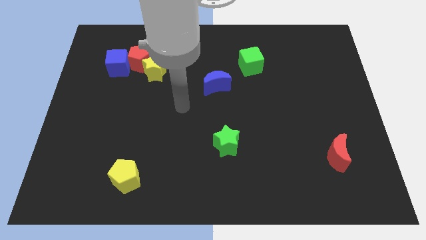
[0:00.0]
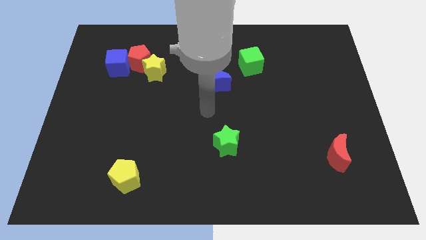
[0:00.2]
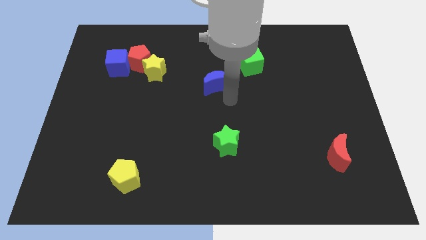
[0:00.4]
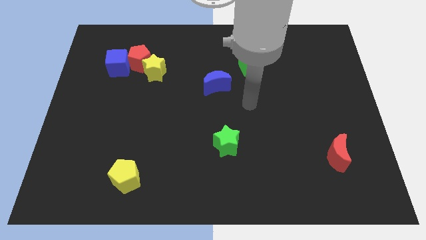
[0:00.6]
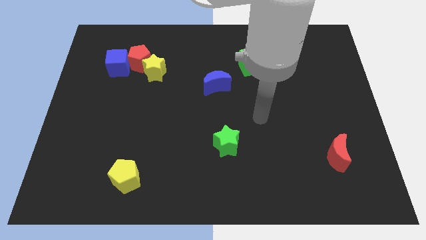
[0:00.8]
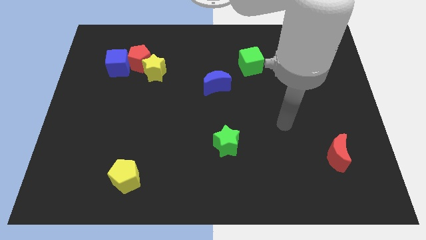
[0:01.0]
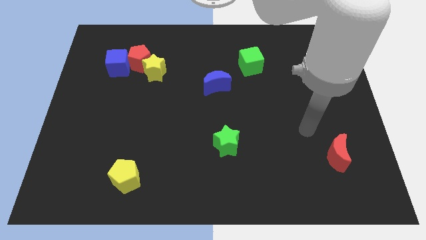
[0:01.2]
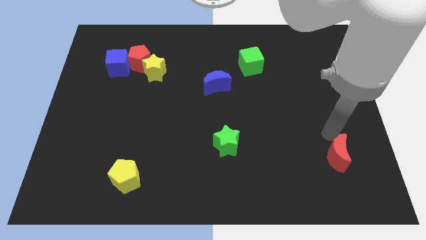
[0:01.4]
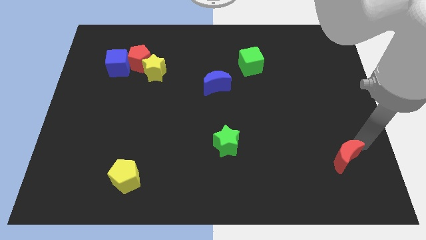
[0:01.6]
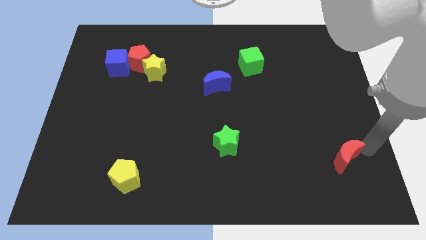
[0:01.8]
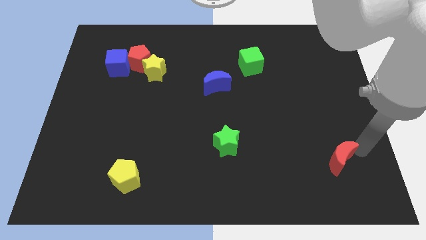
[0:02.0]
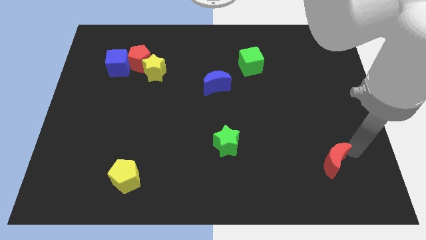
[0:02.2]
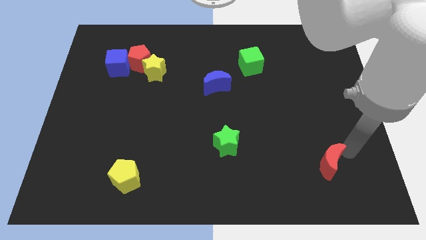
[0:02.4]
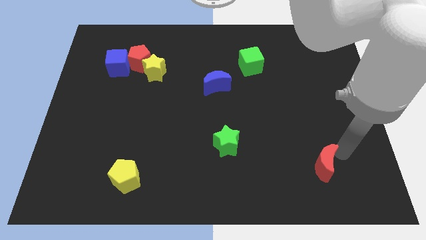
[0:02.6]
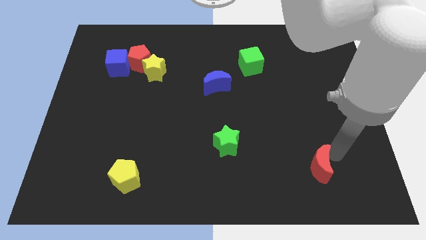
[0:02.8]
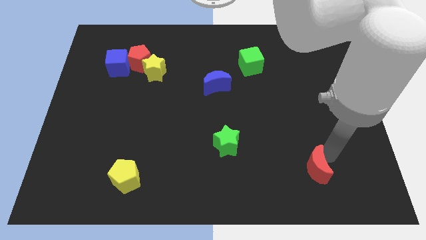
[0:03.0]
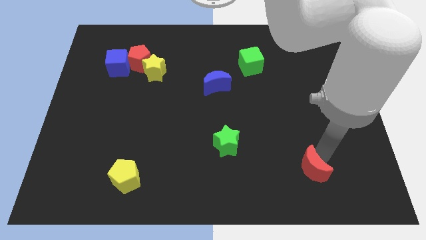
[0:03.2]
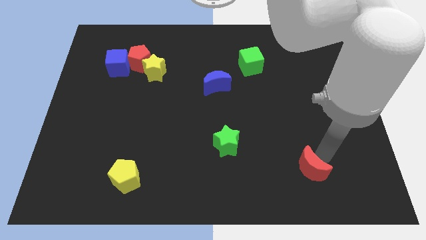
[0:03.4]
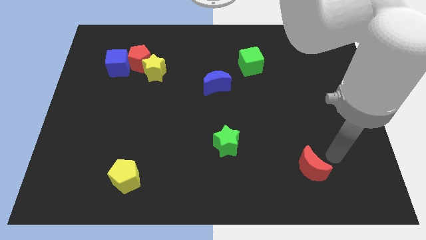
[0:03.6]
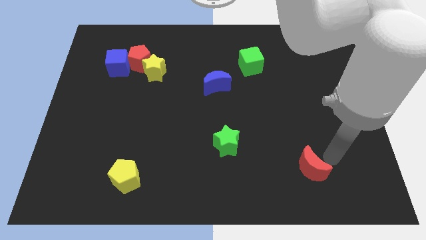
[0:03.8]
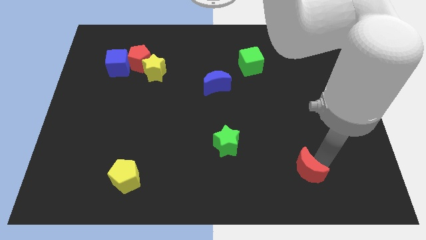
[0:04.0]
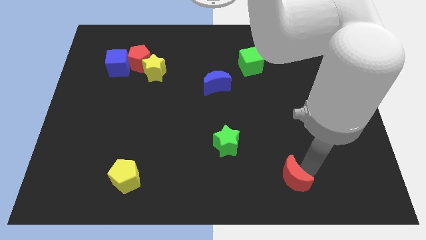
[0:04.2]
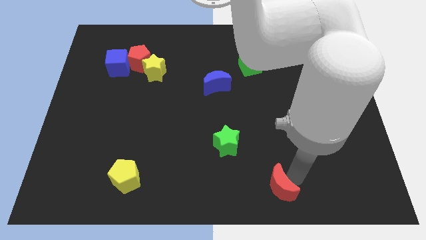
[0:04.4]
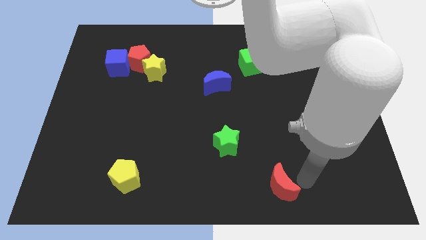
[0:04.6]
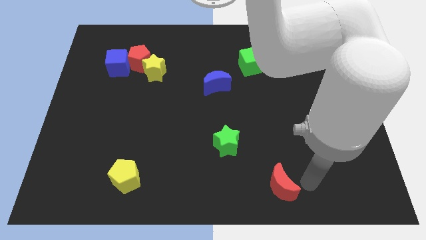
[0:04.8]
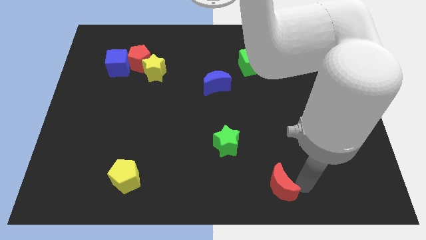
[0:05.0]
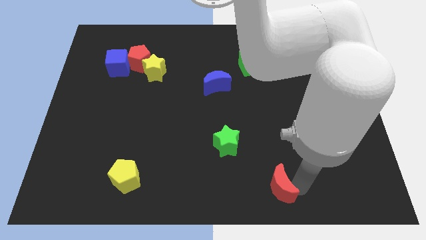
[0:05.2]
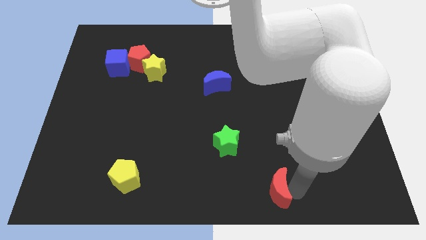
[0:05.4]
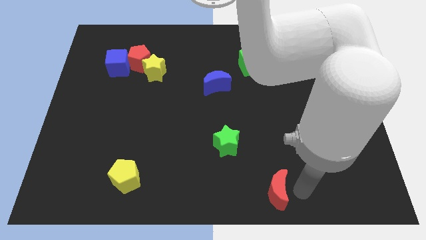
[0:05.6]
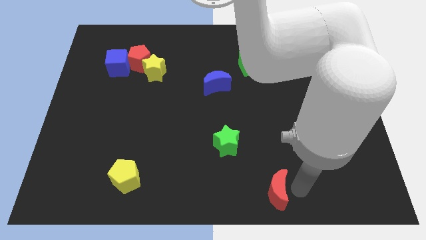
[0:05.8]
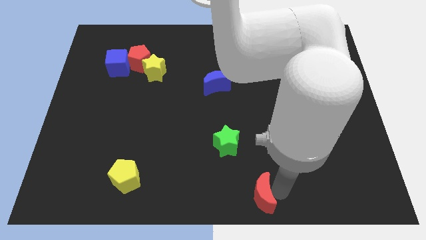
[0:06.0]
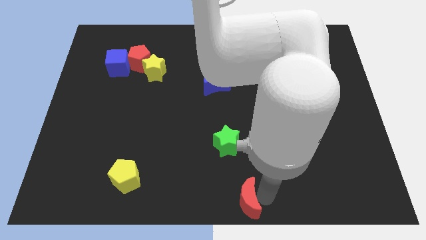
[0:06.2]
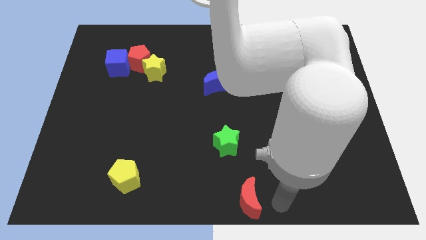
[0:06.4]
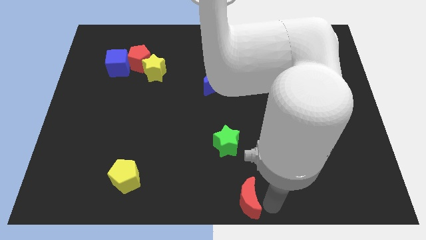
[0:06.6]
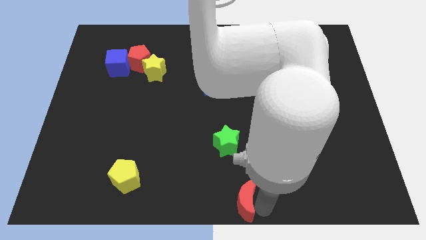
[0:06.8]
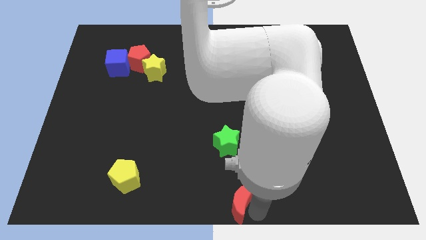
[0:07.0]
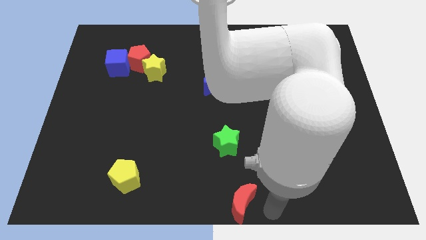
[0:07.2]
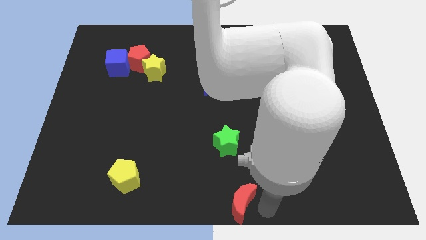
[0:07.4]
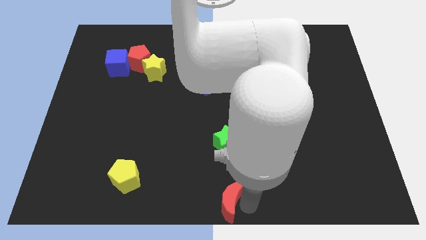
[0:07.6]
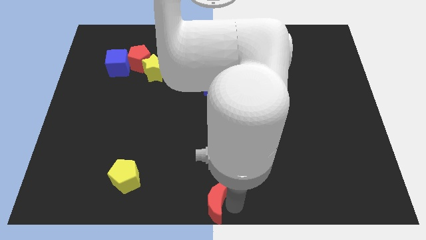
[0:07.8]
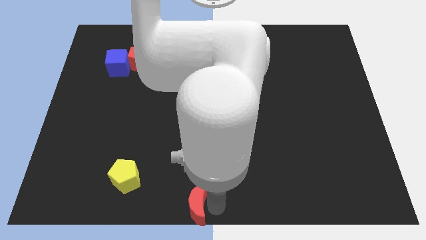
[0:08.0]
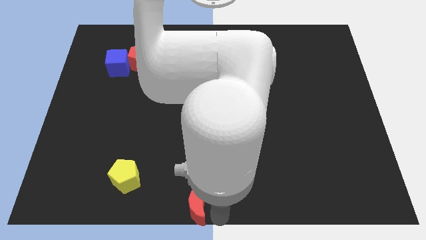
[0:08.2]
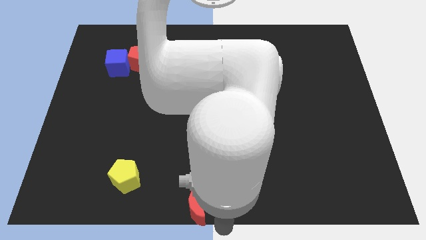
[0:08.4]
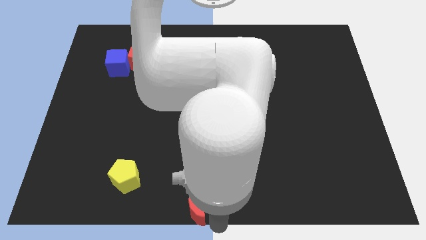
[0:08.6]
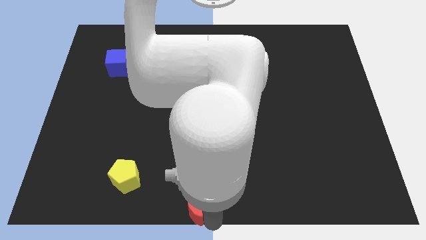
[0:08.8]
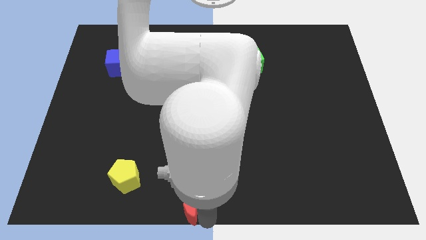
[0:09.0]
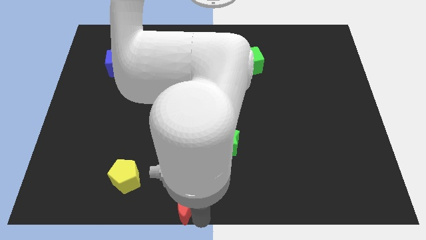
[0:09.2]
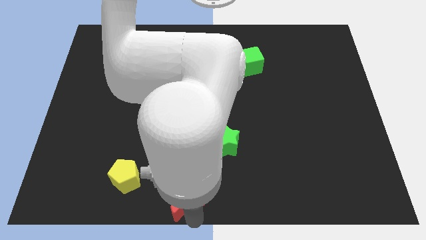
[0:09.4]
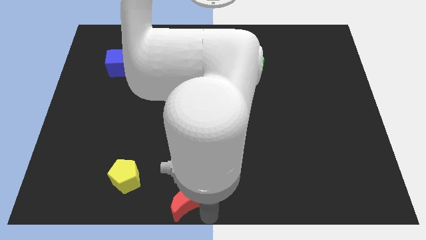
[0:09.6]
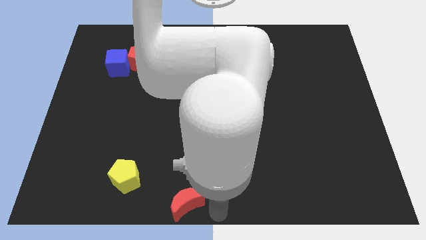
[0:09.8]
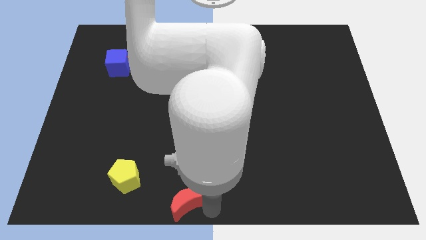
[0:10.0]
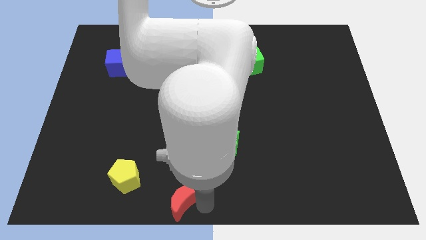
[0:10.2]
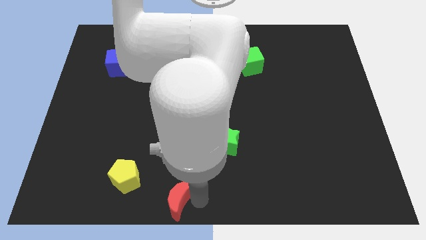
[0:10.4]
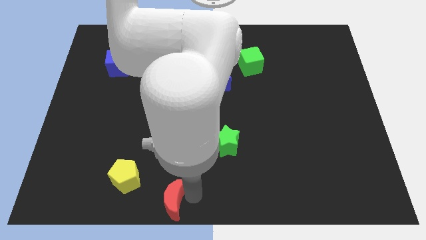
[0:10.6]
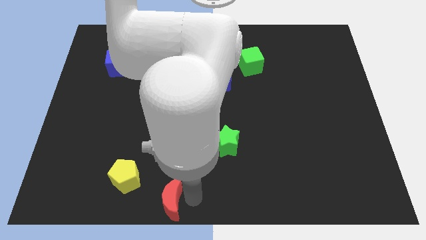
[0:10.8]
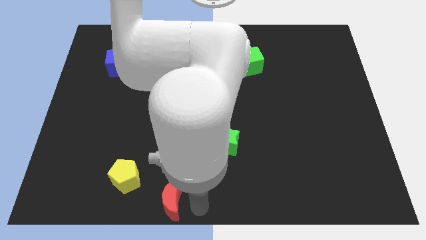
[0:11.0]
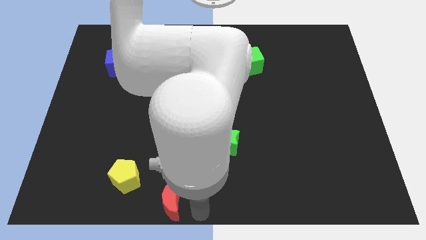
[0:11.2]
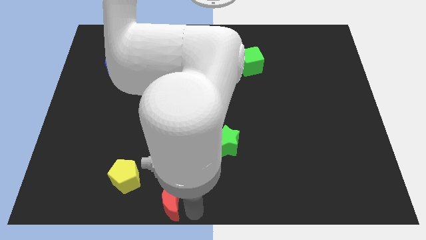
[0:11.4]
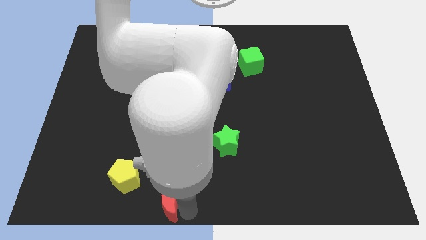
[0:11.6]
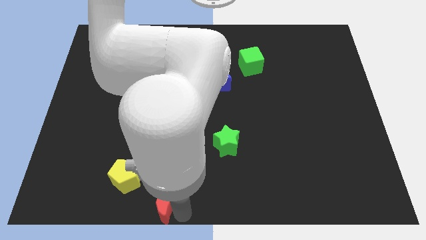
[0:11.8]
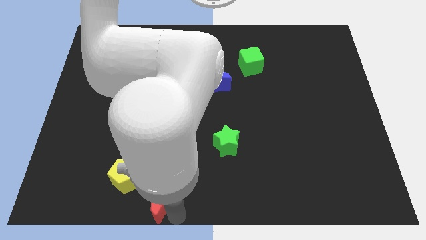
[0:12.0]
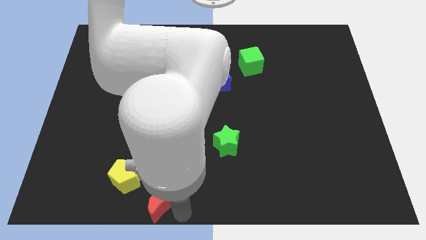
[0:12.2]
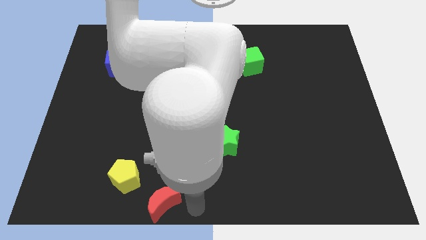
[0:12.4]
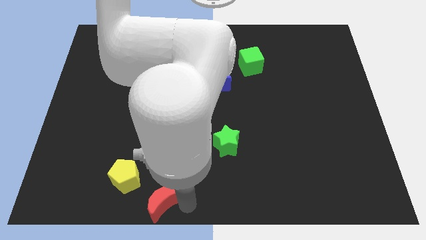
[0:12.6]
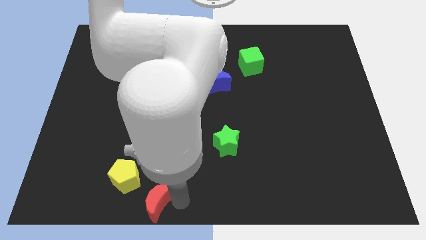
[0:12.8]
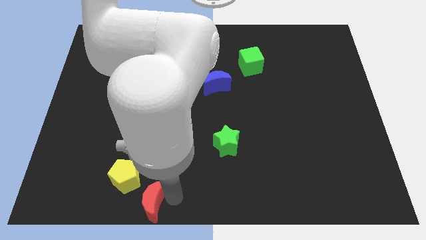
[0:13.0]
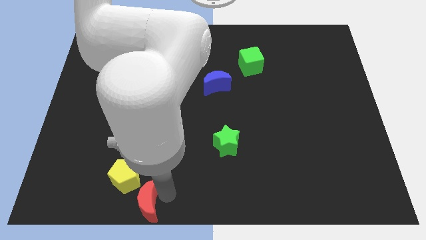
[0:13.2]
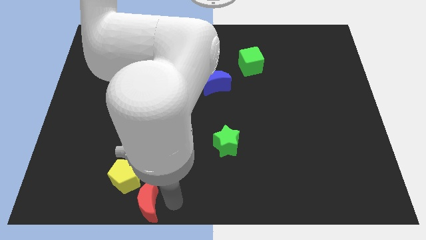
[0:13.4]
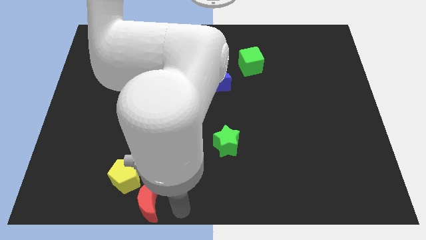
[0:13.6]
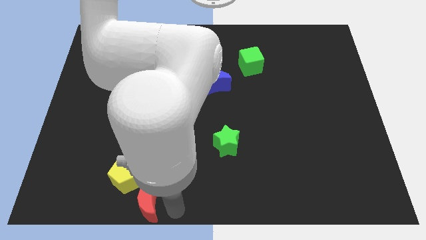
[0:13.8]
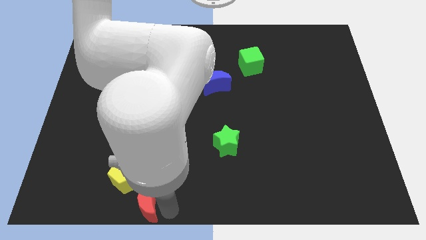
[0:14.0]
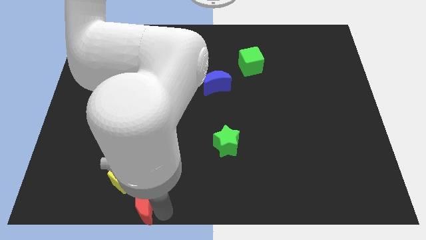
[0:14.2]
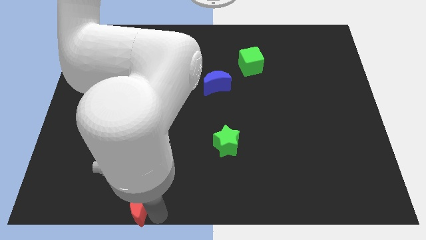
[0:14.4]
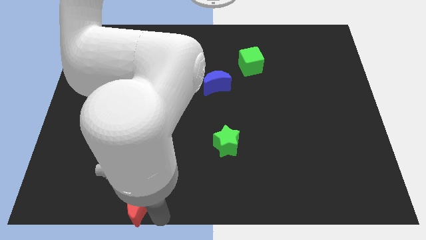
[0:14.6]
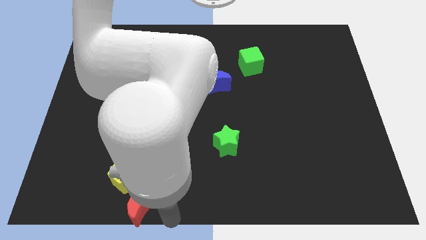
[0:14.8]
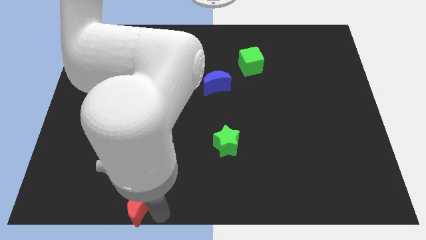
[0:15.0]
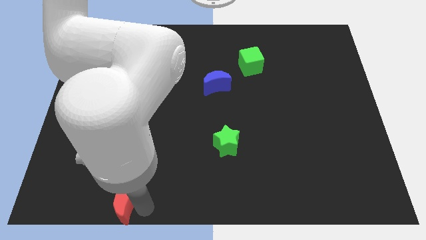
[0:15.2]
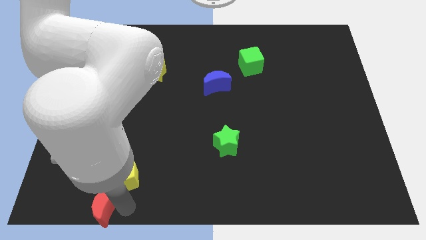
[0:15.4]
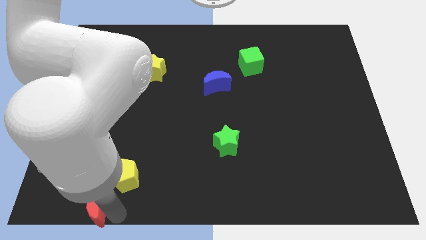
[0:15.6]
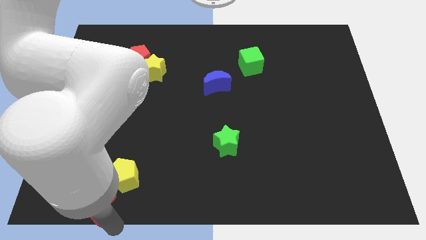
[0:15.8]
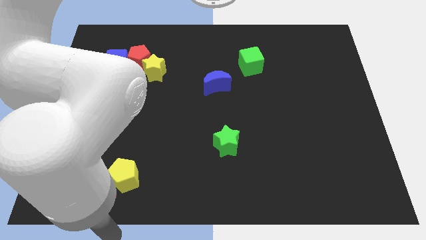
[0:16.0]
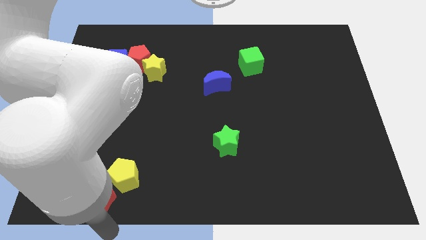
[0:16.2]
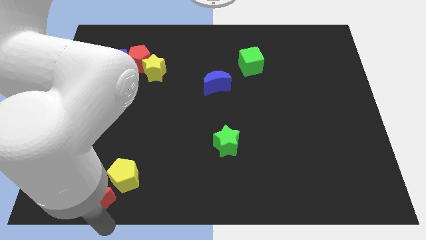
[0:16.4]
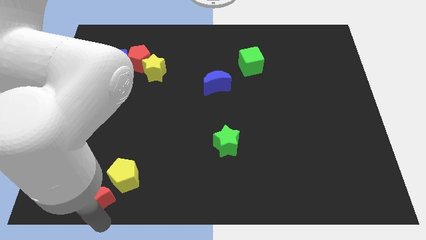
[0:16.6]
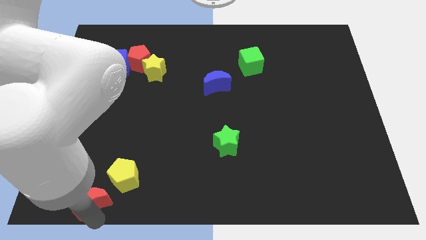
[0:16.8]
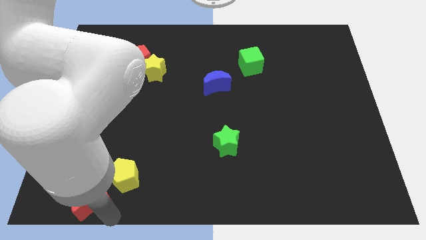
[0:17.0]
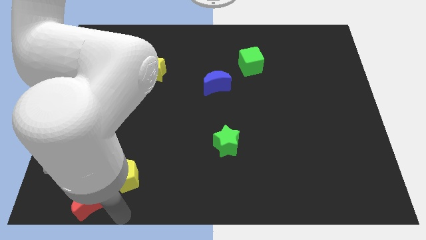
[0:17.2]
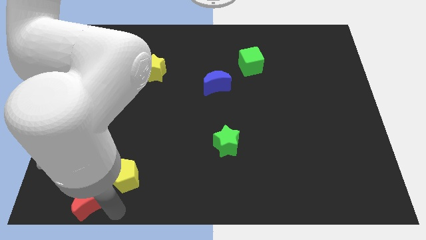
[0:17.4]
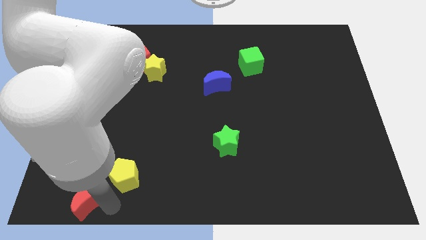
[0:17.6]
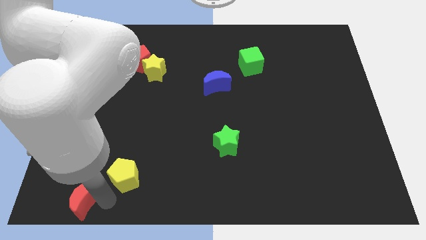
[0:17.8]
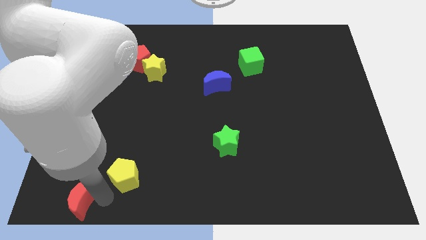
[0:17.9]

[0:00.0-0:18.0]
push the red moon to the lower left corner
